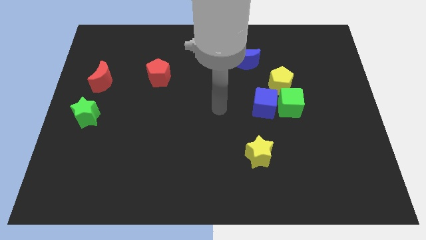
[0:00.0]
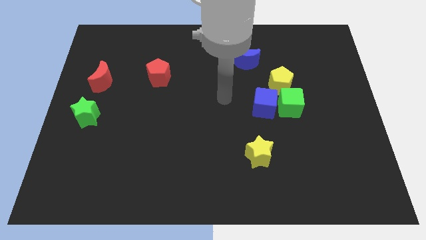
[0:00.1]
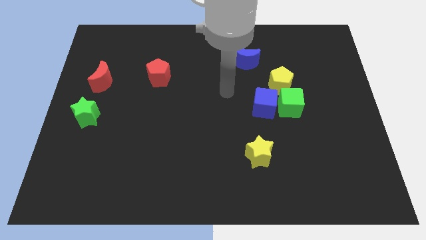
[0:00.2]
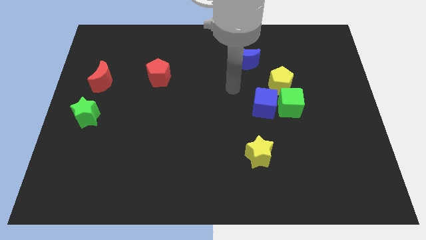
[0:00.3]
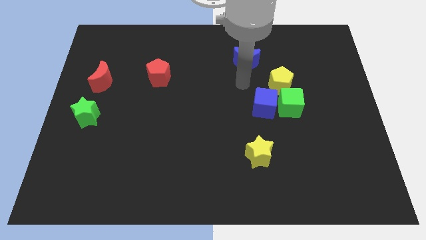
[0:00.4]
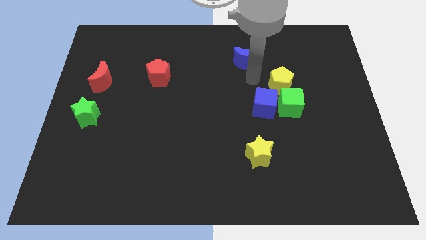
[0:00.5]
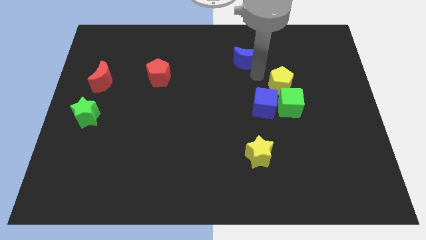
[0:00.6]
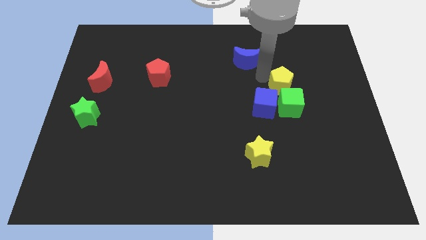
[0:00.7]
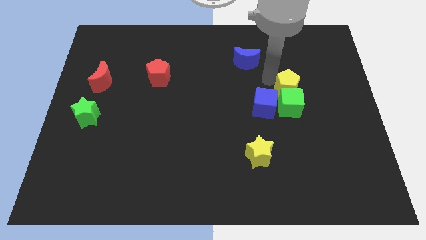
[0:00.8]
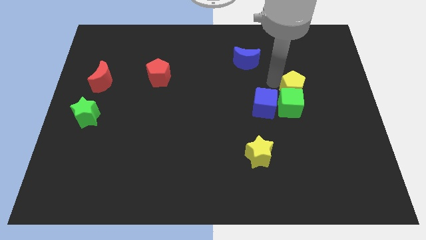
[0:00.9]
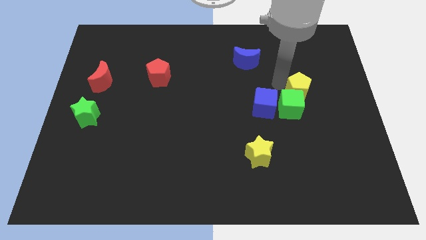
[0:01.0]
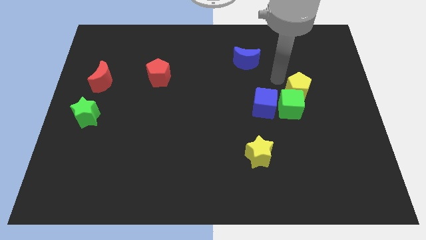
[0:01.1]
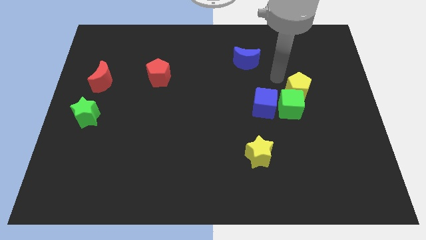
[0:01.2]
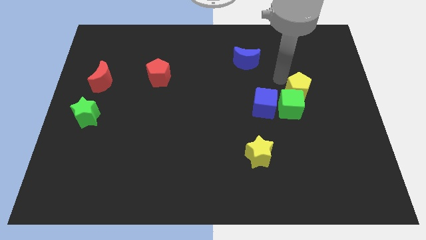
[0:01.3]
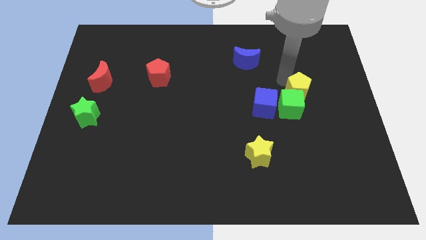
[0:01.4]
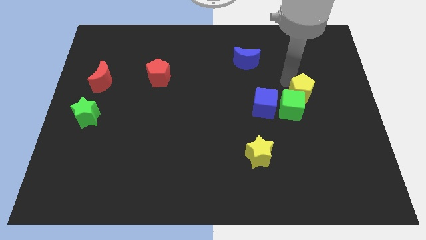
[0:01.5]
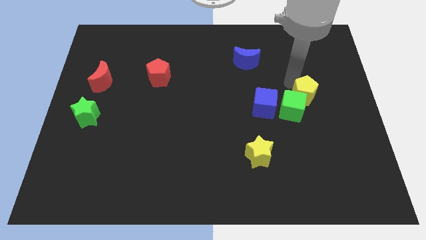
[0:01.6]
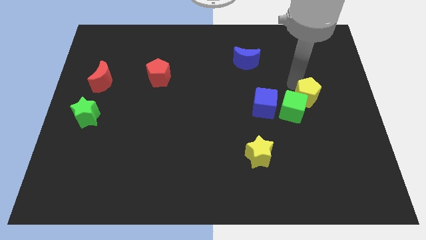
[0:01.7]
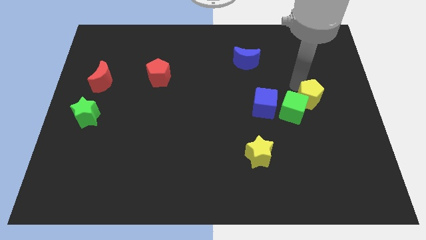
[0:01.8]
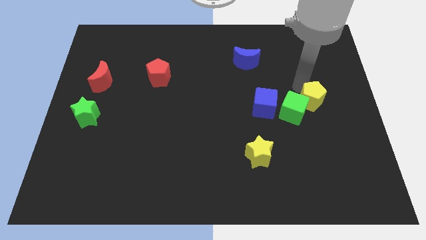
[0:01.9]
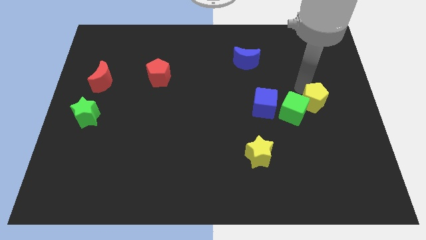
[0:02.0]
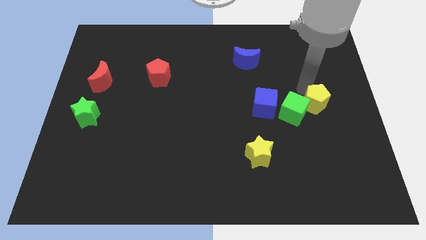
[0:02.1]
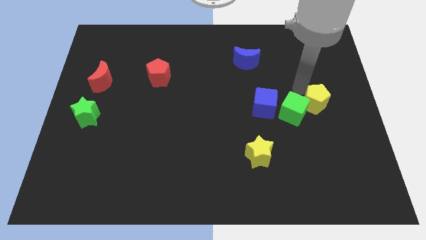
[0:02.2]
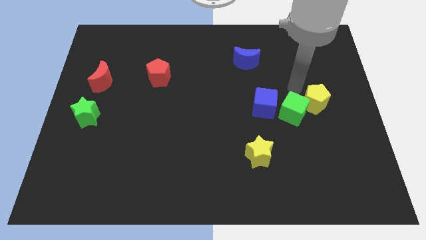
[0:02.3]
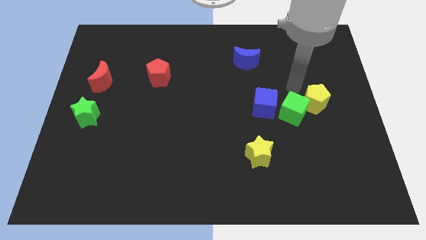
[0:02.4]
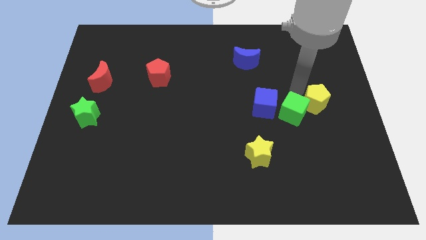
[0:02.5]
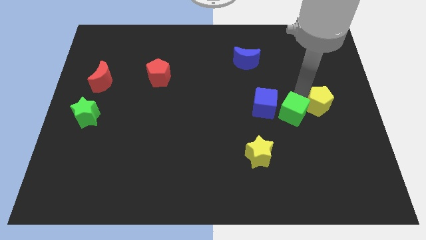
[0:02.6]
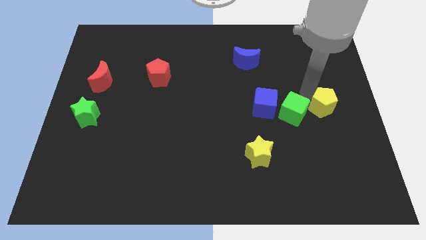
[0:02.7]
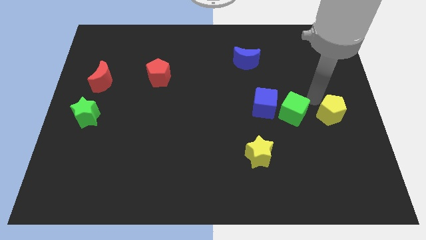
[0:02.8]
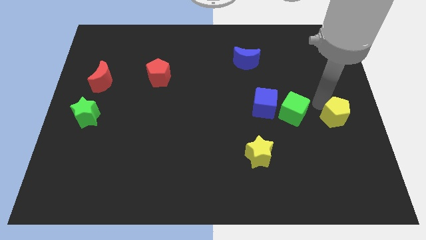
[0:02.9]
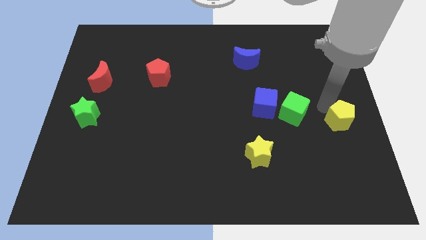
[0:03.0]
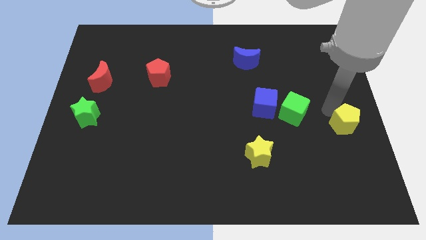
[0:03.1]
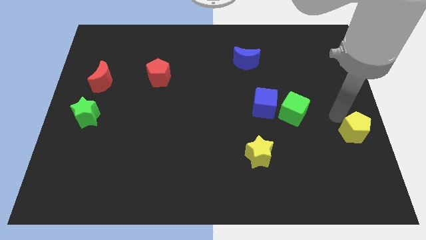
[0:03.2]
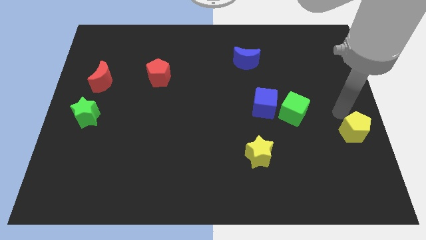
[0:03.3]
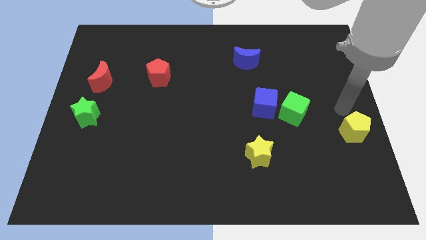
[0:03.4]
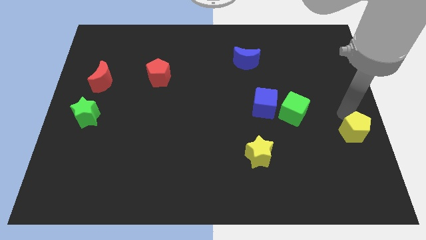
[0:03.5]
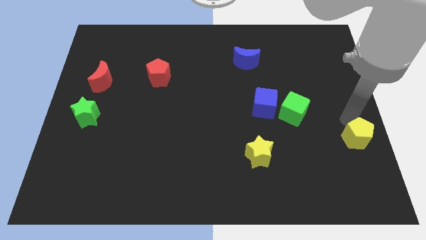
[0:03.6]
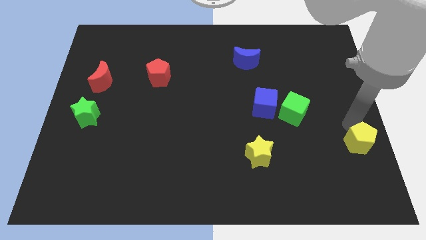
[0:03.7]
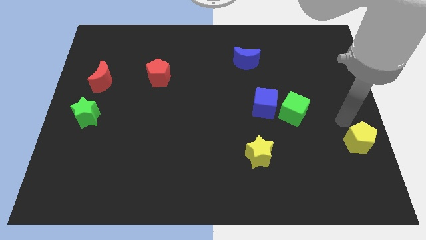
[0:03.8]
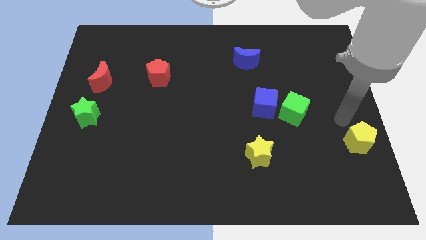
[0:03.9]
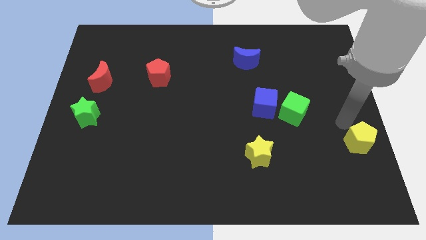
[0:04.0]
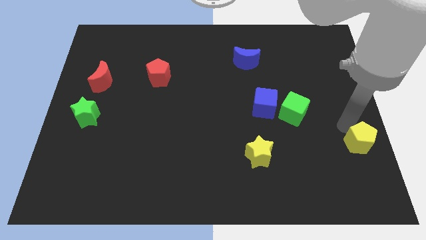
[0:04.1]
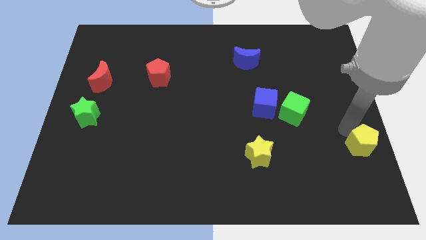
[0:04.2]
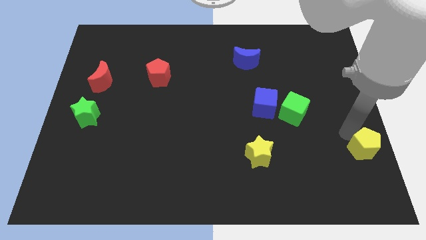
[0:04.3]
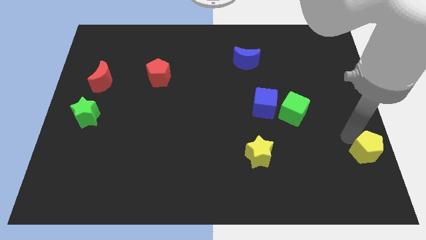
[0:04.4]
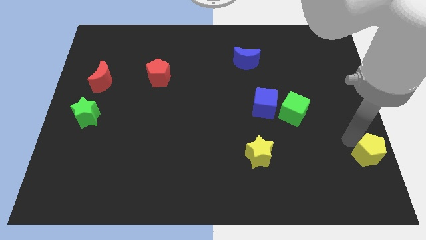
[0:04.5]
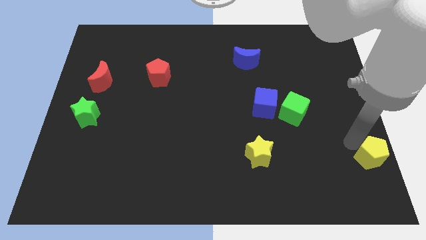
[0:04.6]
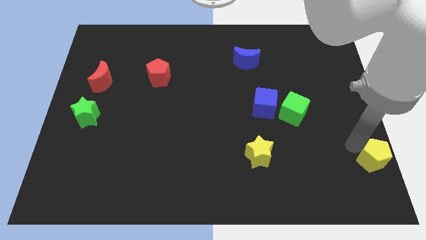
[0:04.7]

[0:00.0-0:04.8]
slide the yellow pentagon to the lower right corner

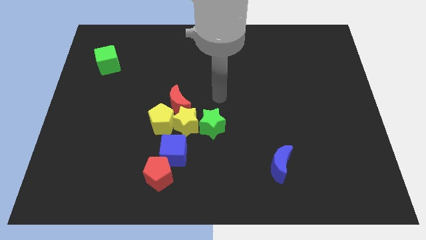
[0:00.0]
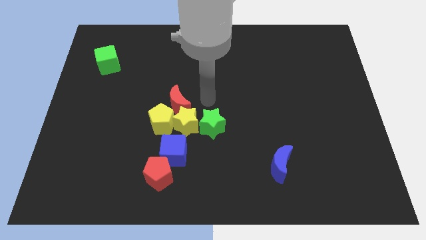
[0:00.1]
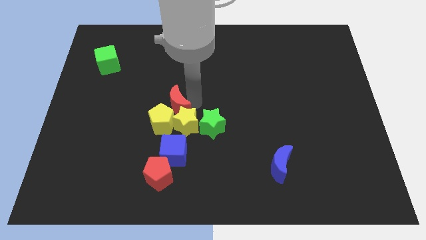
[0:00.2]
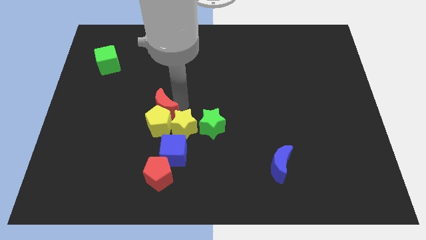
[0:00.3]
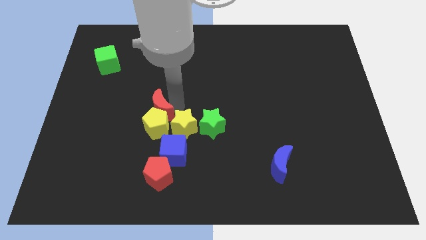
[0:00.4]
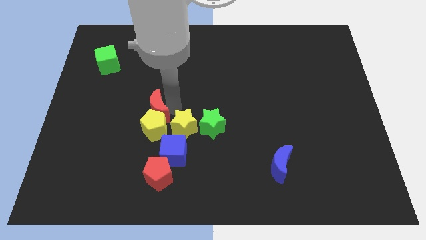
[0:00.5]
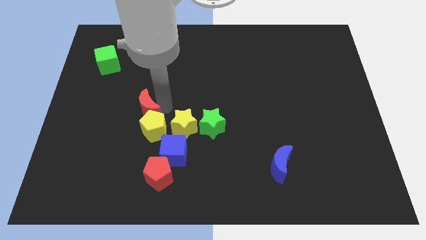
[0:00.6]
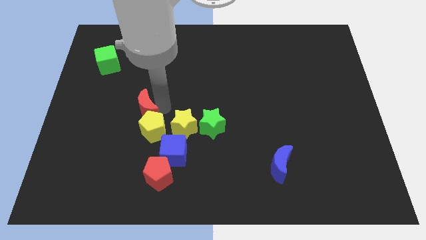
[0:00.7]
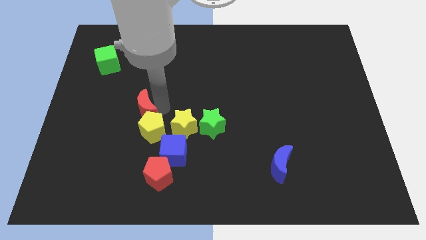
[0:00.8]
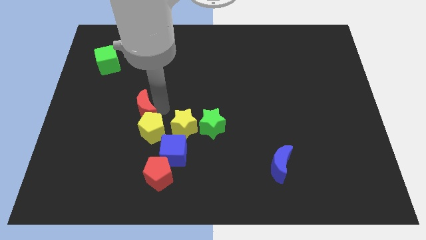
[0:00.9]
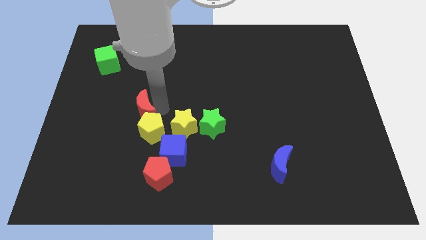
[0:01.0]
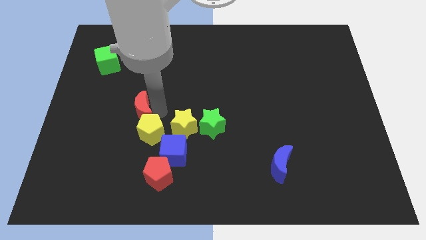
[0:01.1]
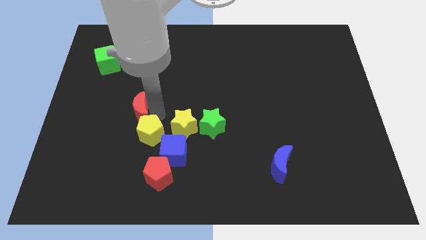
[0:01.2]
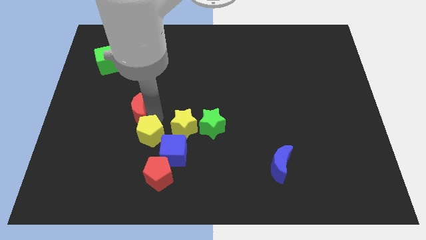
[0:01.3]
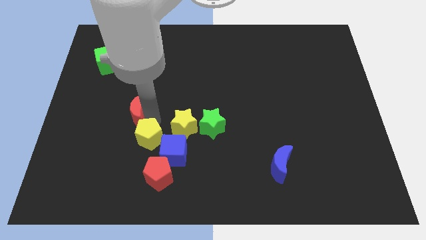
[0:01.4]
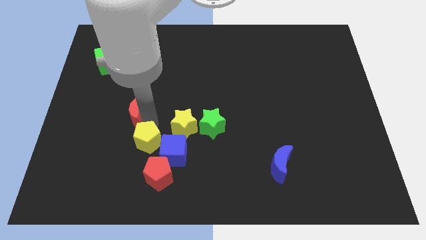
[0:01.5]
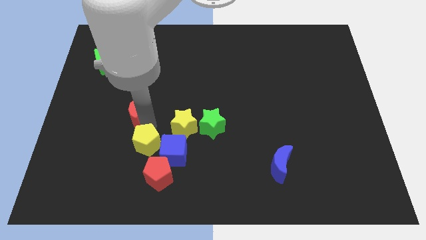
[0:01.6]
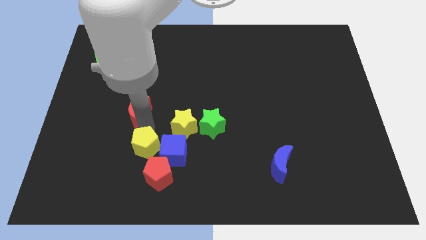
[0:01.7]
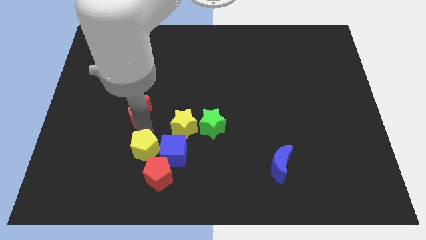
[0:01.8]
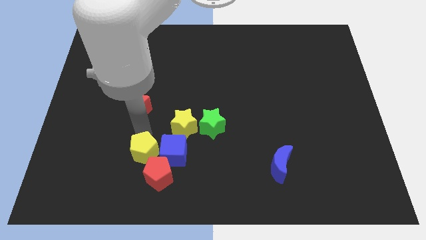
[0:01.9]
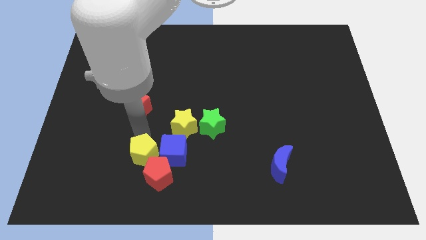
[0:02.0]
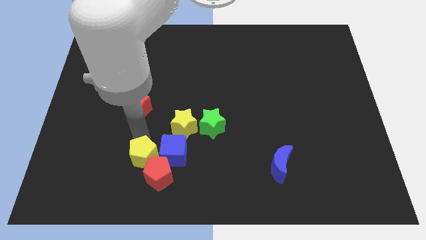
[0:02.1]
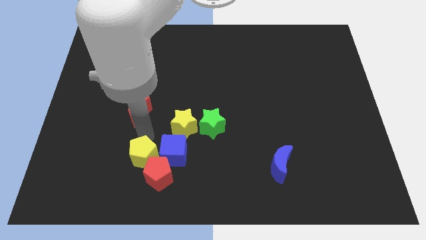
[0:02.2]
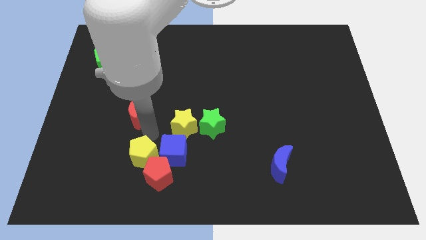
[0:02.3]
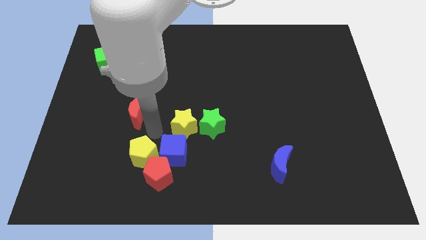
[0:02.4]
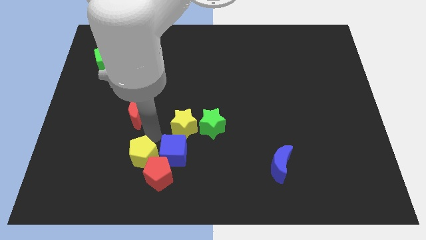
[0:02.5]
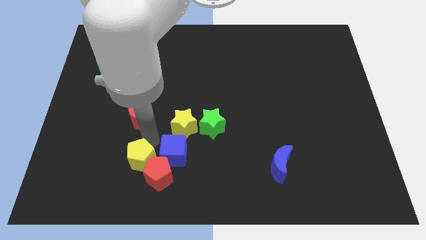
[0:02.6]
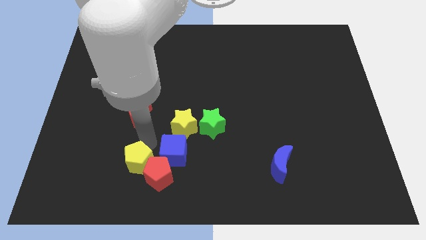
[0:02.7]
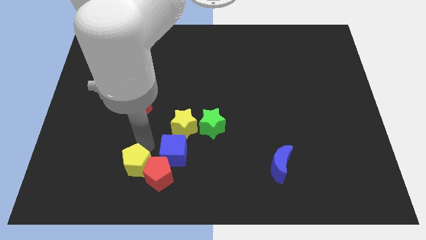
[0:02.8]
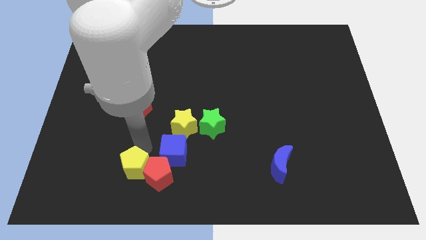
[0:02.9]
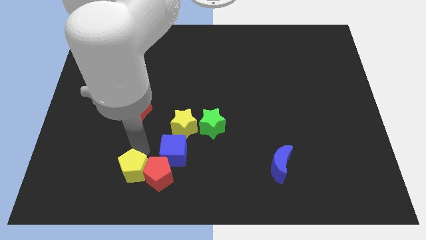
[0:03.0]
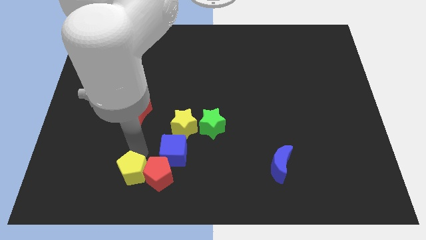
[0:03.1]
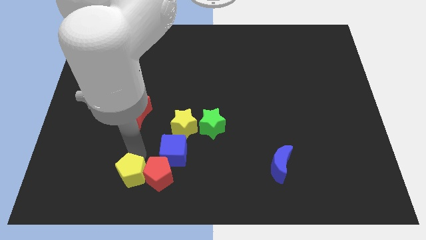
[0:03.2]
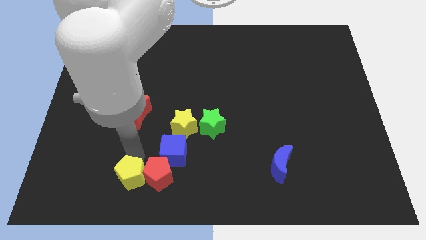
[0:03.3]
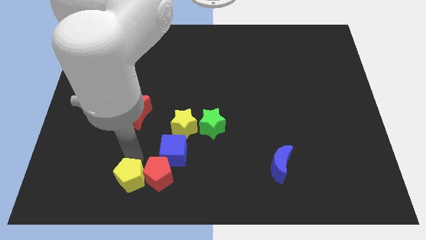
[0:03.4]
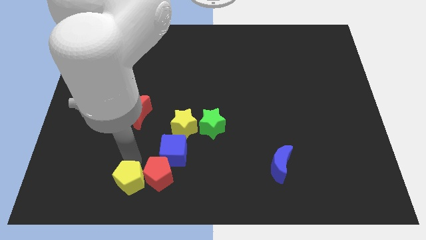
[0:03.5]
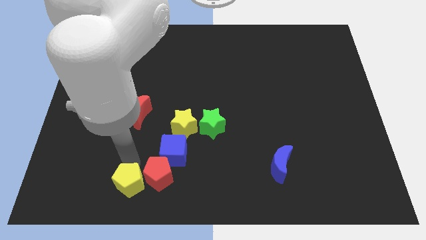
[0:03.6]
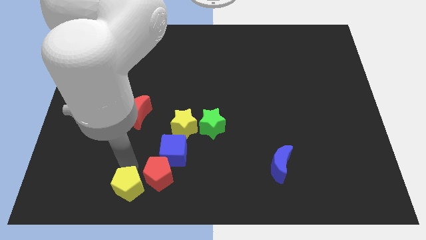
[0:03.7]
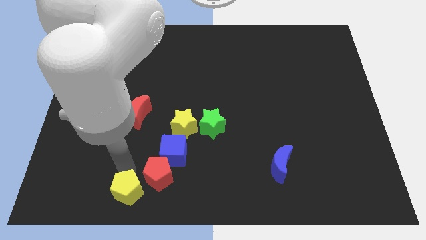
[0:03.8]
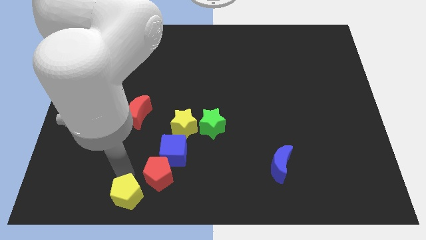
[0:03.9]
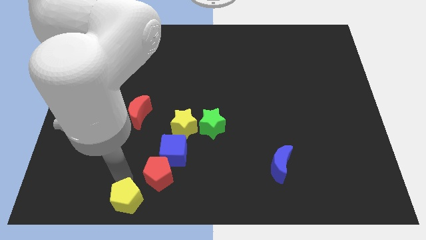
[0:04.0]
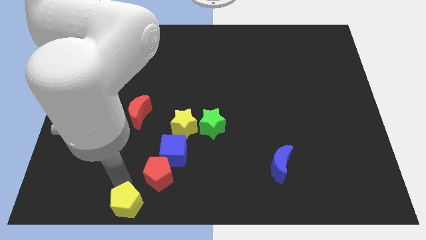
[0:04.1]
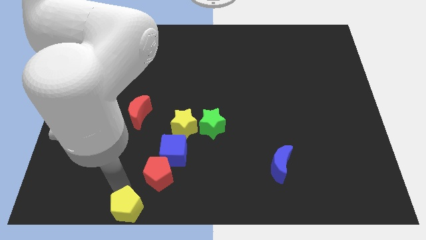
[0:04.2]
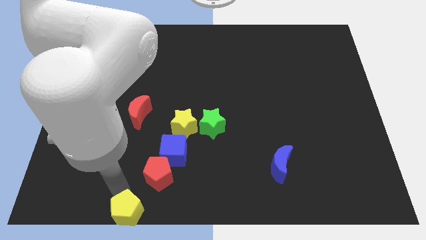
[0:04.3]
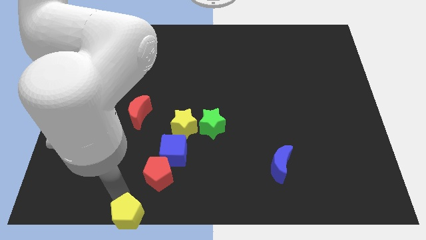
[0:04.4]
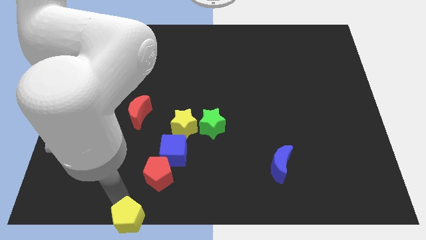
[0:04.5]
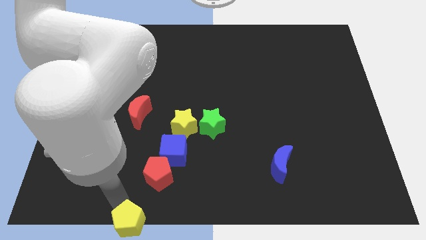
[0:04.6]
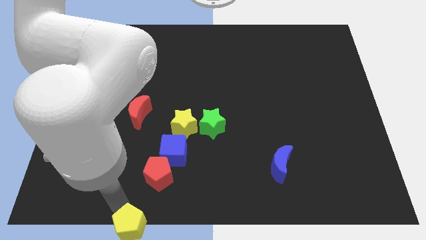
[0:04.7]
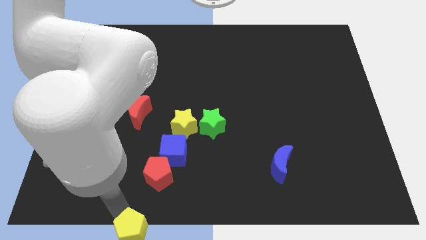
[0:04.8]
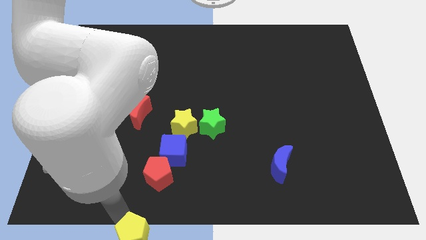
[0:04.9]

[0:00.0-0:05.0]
push the yellow pentagon to the bottom side
